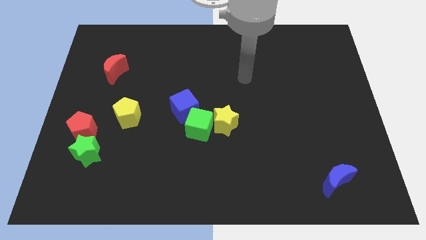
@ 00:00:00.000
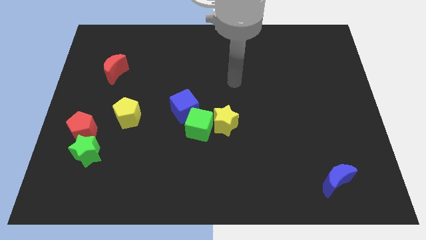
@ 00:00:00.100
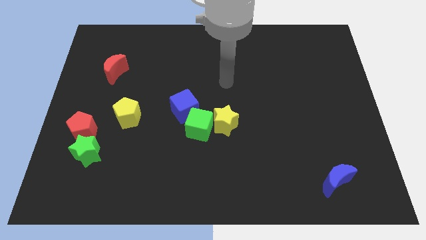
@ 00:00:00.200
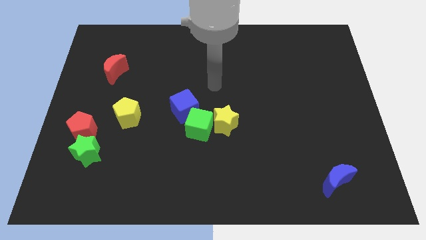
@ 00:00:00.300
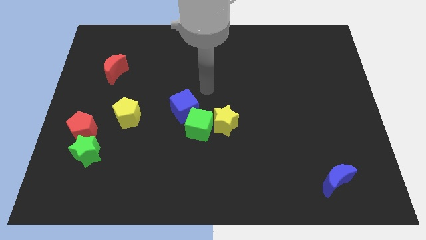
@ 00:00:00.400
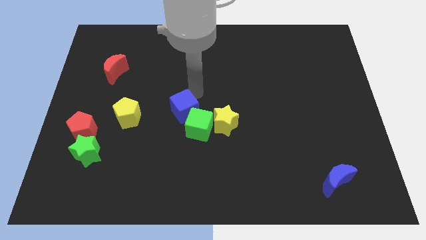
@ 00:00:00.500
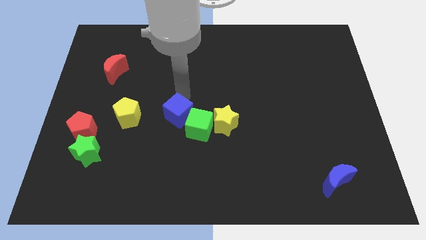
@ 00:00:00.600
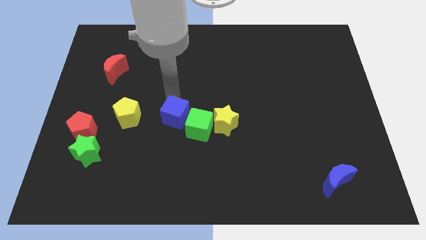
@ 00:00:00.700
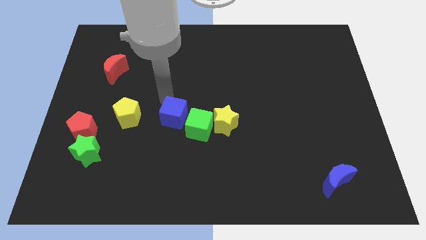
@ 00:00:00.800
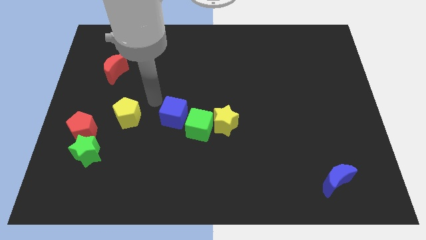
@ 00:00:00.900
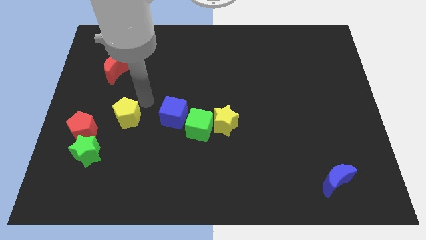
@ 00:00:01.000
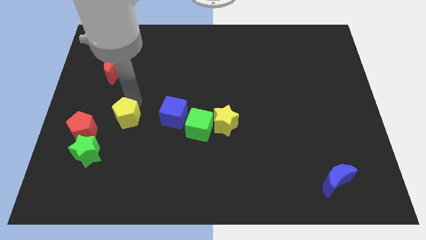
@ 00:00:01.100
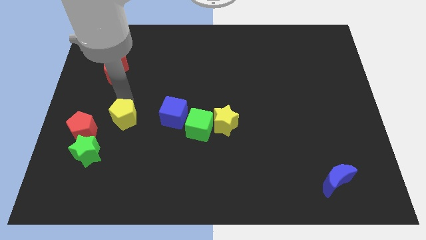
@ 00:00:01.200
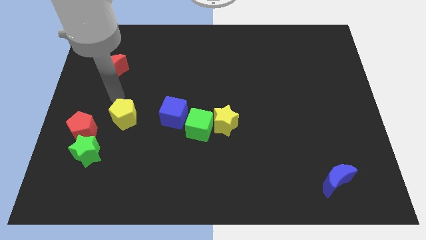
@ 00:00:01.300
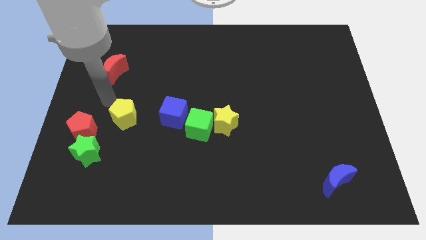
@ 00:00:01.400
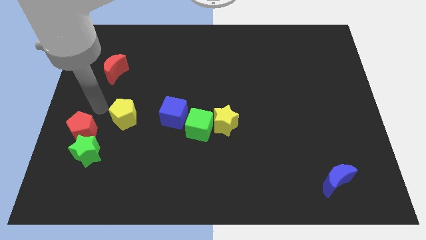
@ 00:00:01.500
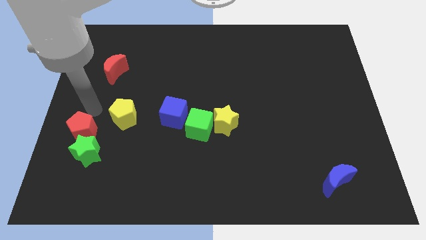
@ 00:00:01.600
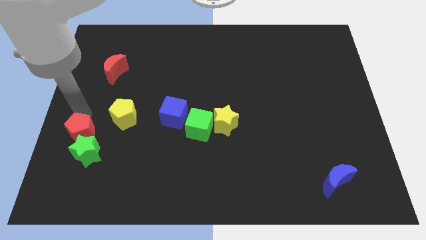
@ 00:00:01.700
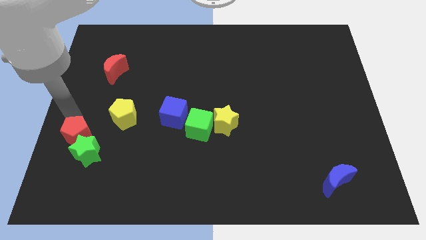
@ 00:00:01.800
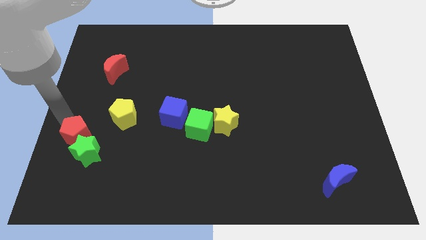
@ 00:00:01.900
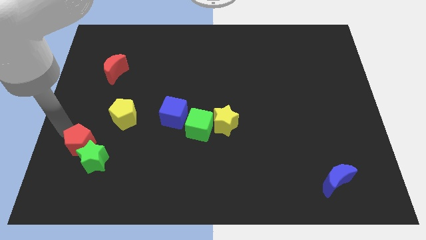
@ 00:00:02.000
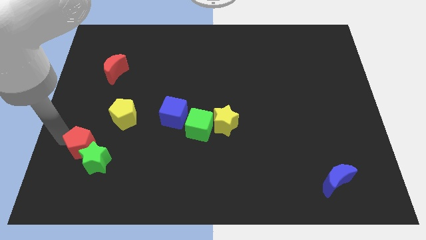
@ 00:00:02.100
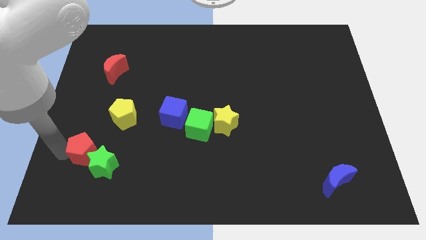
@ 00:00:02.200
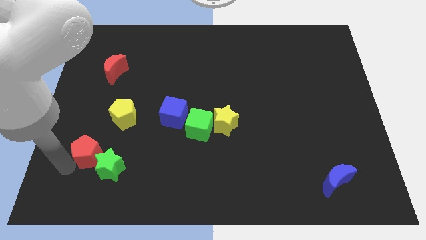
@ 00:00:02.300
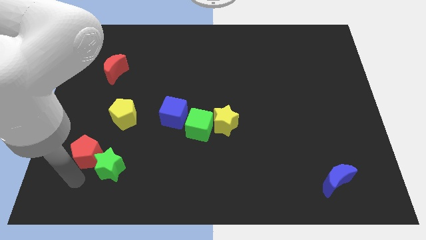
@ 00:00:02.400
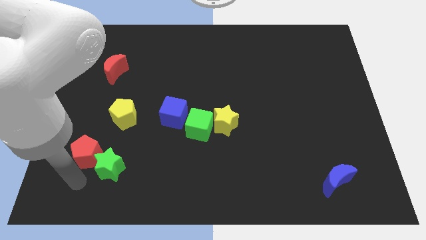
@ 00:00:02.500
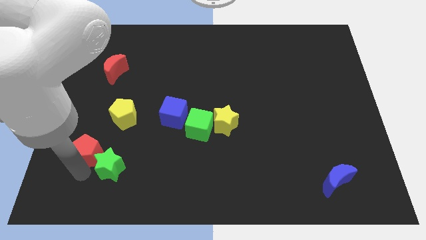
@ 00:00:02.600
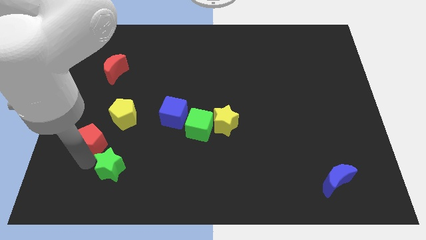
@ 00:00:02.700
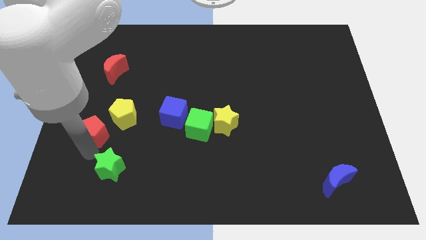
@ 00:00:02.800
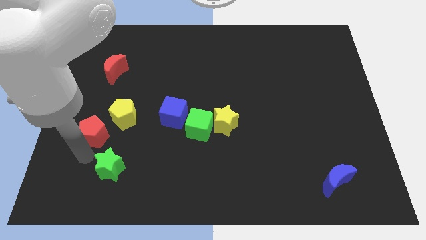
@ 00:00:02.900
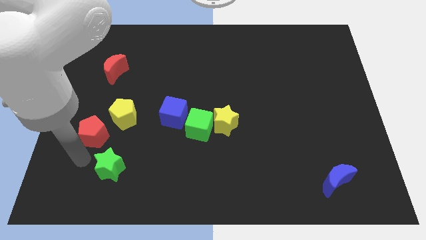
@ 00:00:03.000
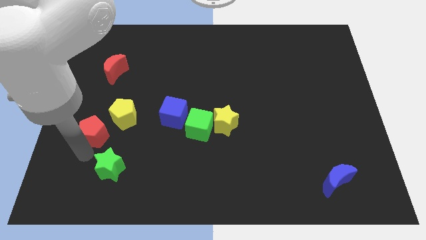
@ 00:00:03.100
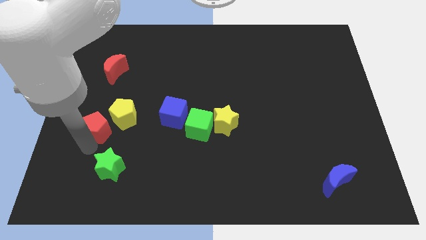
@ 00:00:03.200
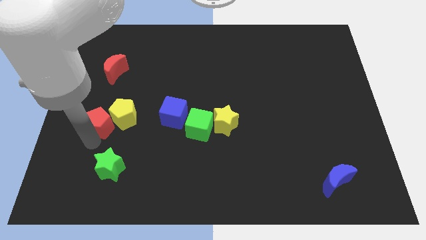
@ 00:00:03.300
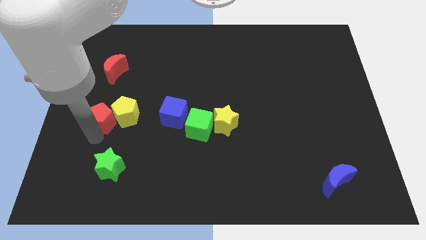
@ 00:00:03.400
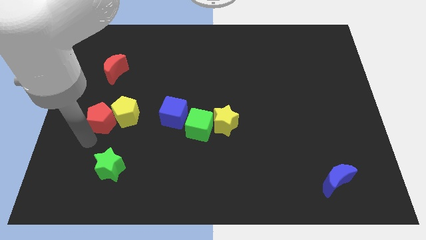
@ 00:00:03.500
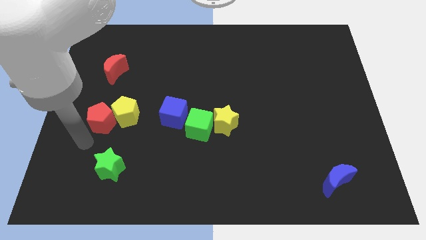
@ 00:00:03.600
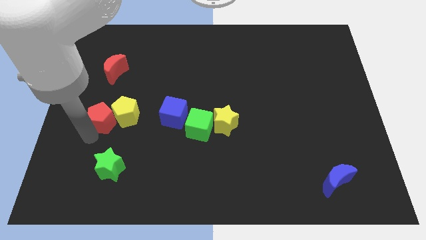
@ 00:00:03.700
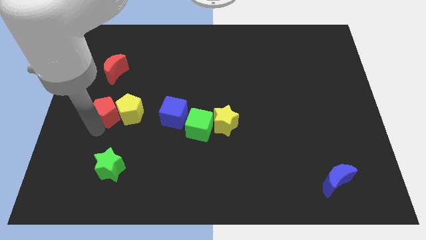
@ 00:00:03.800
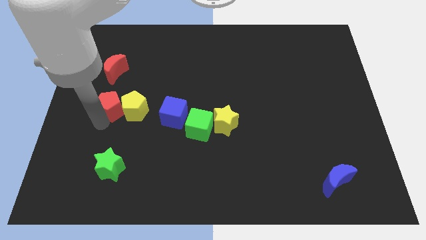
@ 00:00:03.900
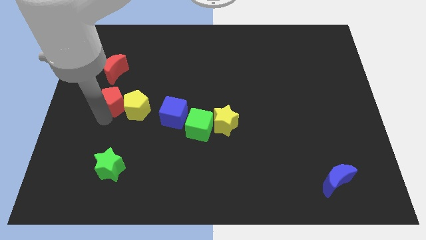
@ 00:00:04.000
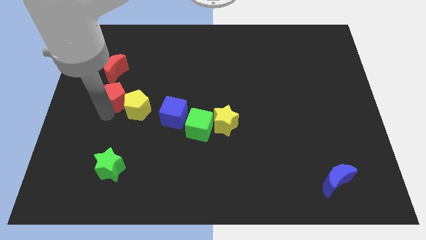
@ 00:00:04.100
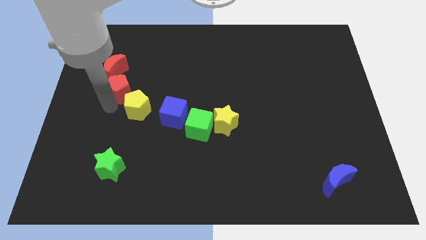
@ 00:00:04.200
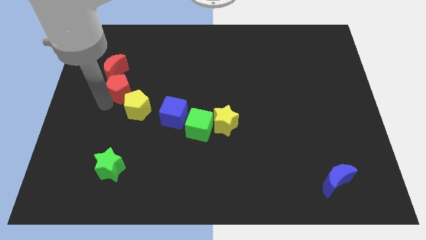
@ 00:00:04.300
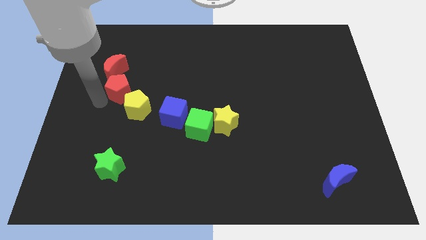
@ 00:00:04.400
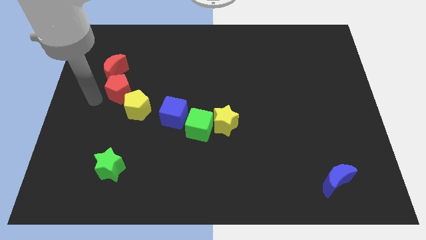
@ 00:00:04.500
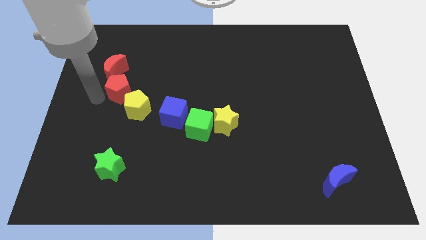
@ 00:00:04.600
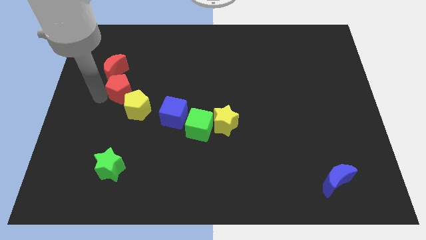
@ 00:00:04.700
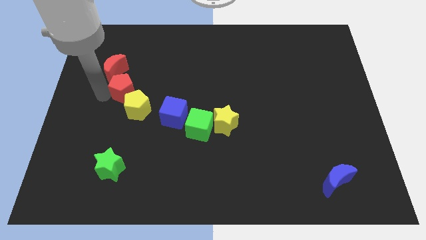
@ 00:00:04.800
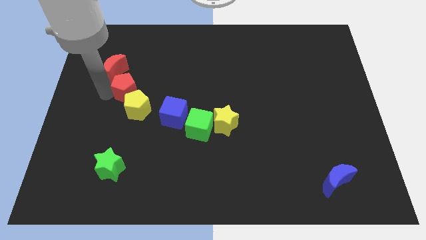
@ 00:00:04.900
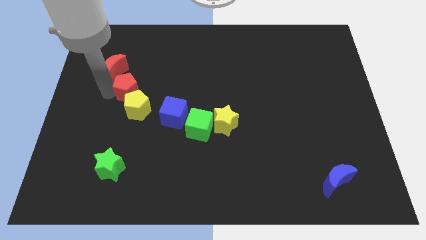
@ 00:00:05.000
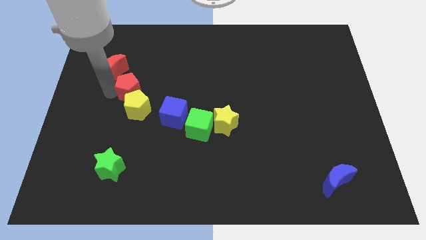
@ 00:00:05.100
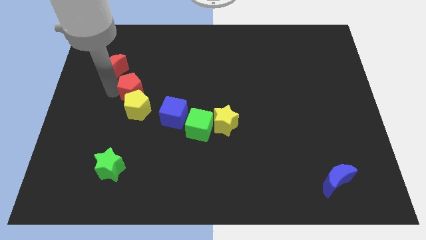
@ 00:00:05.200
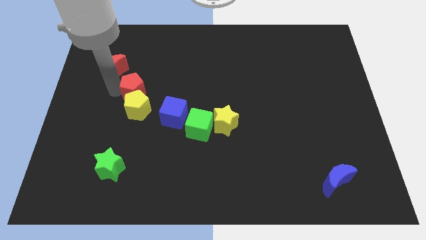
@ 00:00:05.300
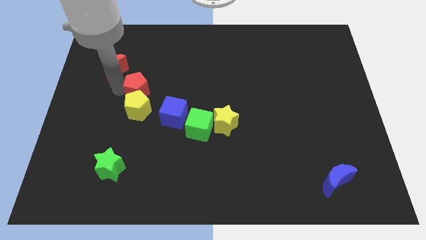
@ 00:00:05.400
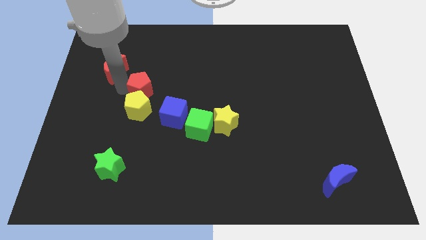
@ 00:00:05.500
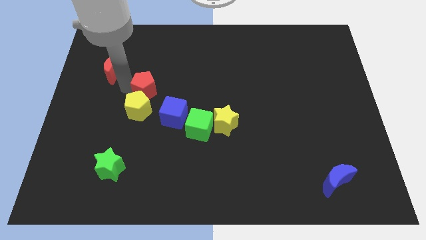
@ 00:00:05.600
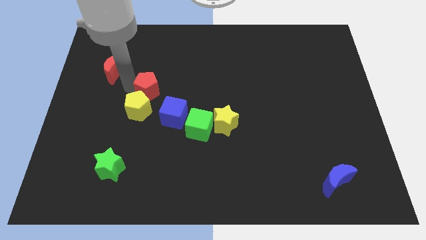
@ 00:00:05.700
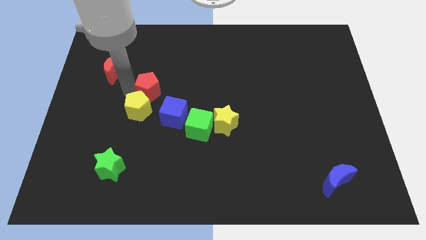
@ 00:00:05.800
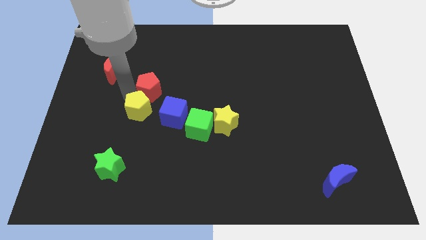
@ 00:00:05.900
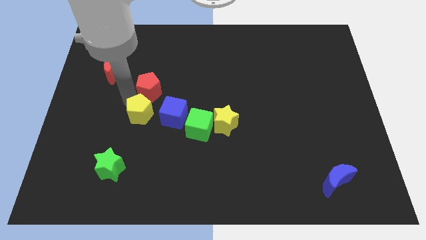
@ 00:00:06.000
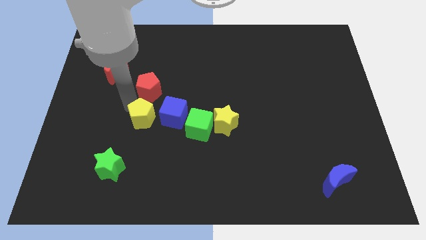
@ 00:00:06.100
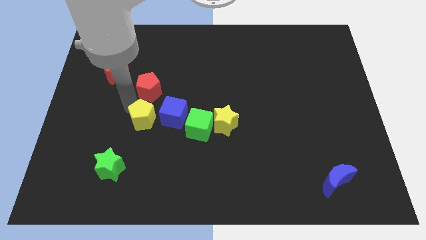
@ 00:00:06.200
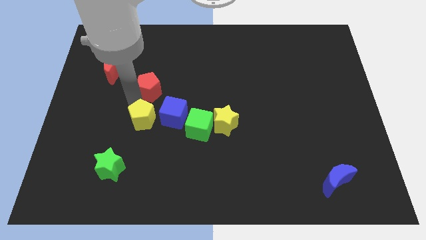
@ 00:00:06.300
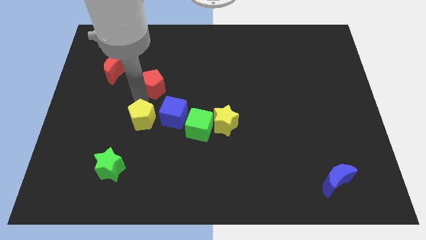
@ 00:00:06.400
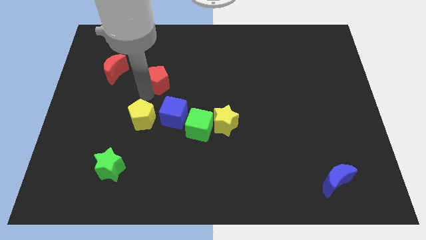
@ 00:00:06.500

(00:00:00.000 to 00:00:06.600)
move the red pentagon upwards and then right

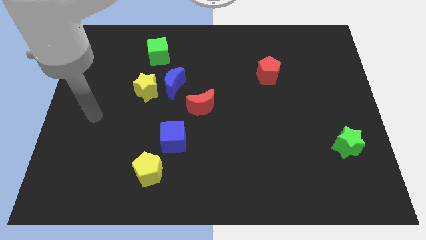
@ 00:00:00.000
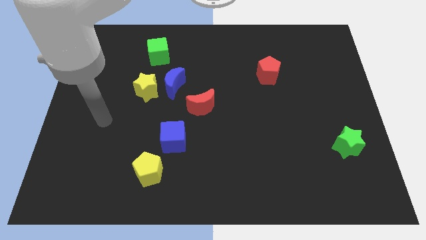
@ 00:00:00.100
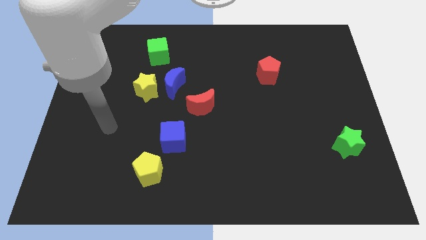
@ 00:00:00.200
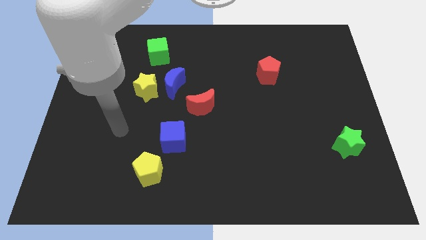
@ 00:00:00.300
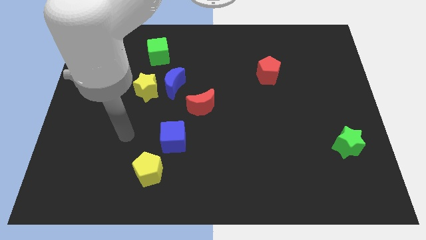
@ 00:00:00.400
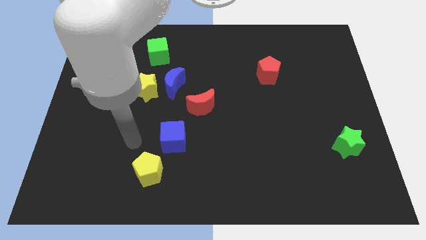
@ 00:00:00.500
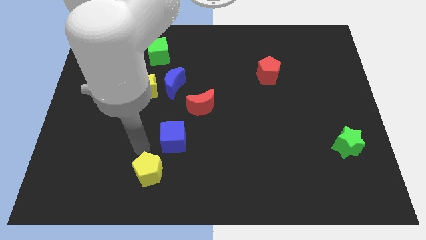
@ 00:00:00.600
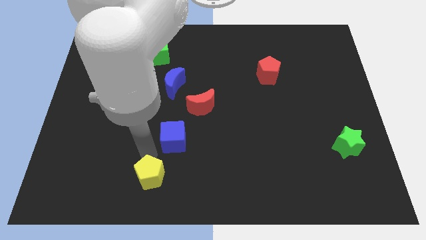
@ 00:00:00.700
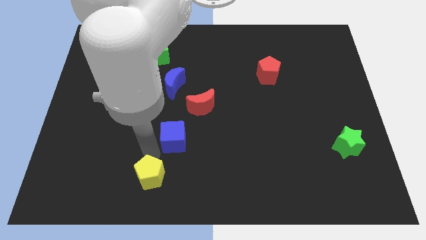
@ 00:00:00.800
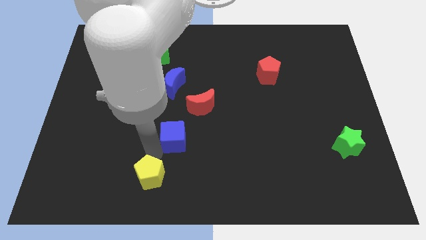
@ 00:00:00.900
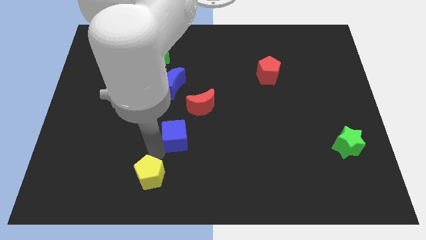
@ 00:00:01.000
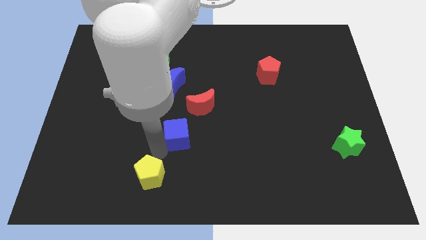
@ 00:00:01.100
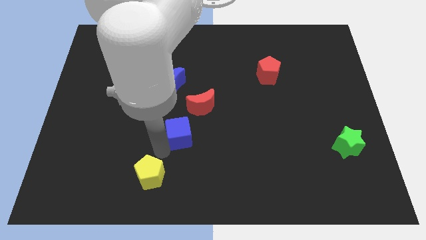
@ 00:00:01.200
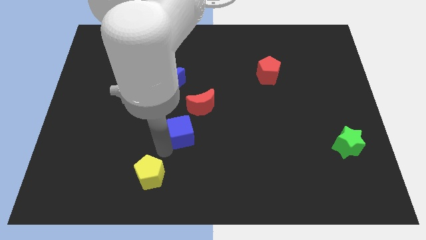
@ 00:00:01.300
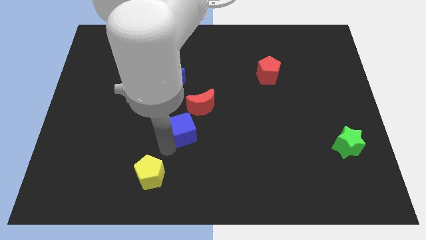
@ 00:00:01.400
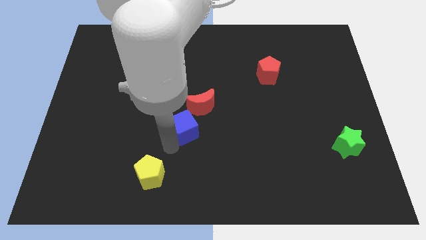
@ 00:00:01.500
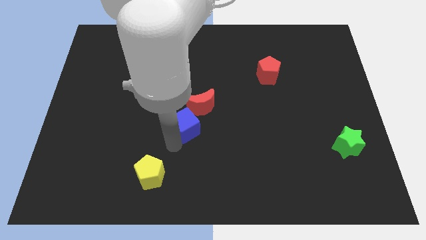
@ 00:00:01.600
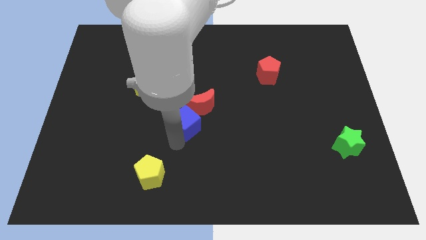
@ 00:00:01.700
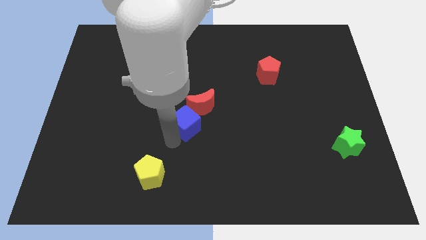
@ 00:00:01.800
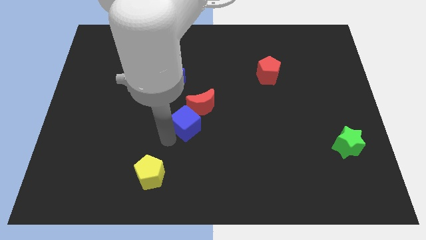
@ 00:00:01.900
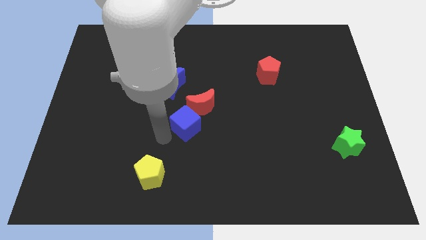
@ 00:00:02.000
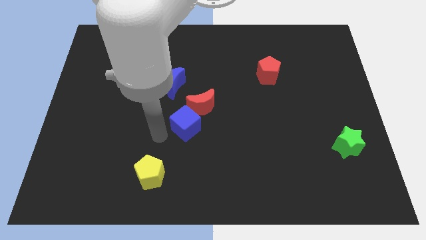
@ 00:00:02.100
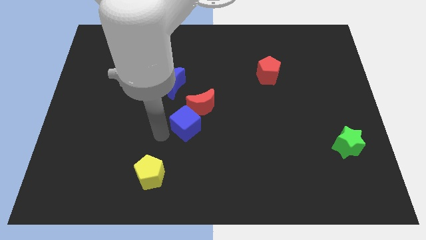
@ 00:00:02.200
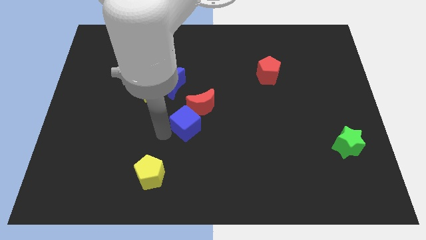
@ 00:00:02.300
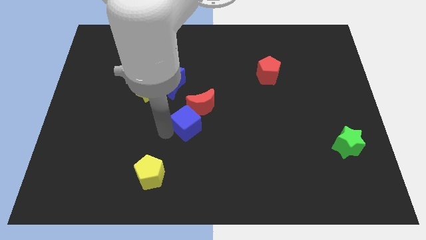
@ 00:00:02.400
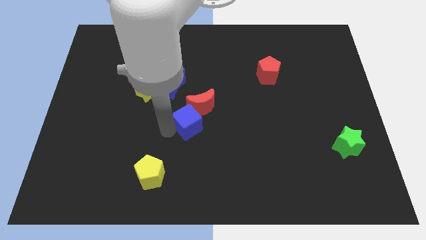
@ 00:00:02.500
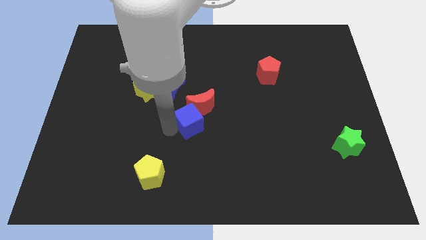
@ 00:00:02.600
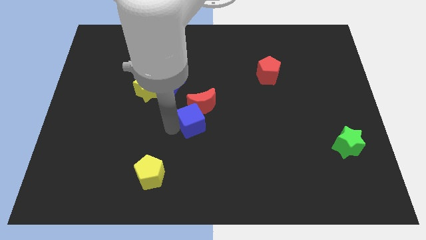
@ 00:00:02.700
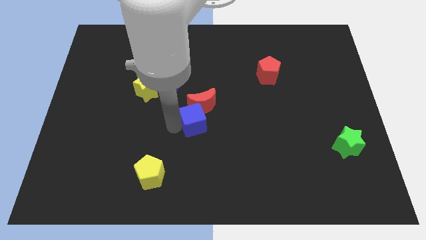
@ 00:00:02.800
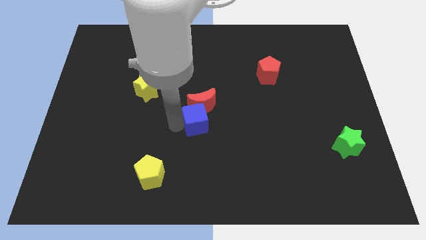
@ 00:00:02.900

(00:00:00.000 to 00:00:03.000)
move the blue cube upwards and right diagonally somewhat
